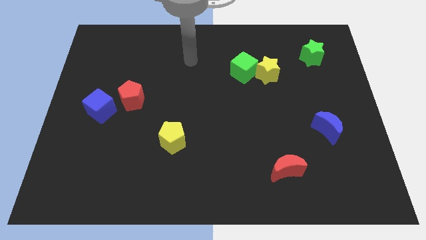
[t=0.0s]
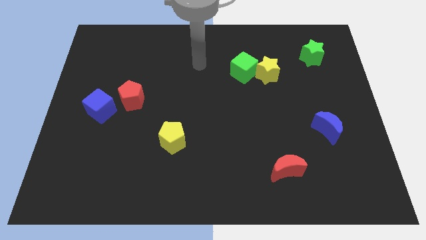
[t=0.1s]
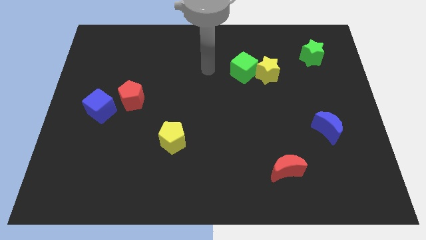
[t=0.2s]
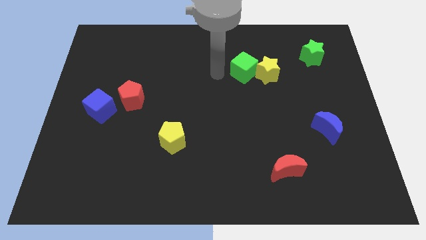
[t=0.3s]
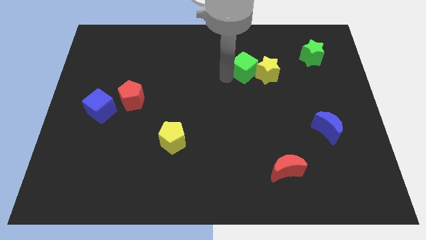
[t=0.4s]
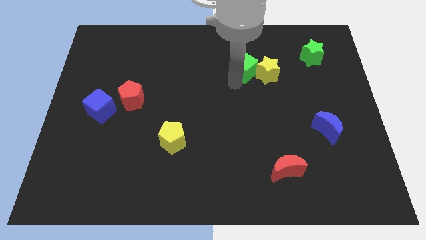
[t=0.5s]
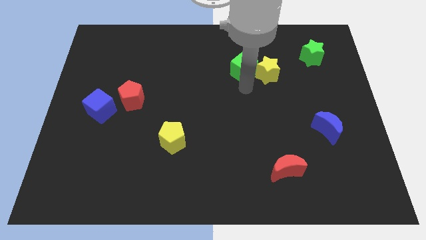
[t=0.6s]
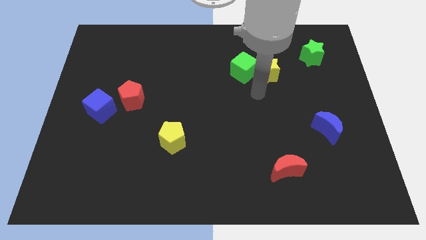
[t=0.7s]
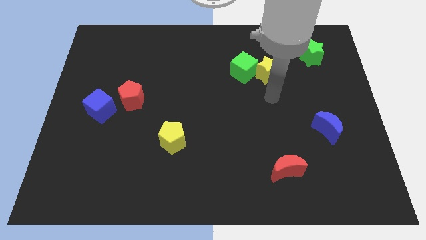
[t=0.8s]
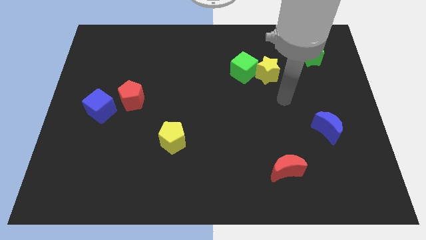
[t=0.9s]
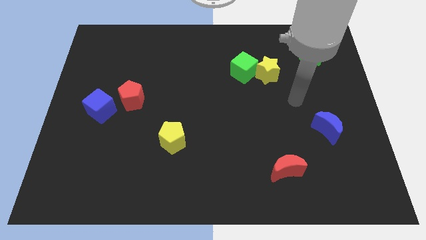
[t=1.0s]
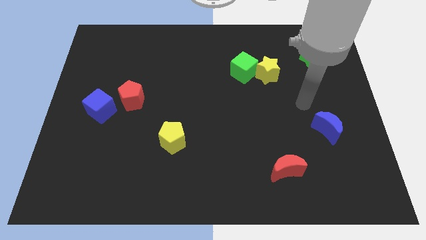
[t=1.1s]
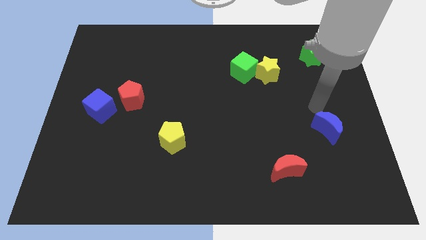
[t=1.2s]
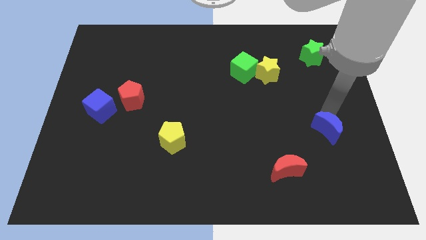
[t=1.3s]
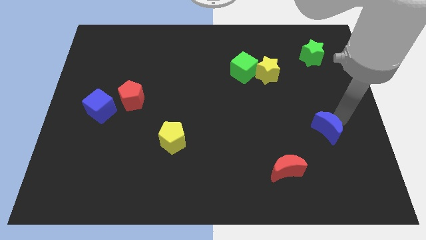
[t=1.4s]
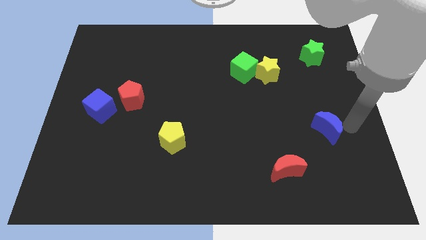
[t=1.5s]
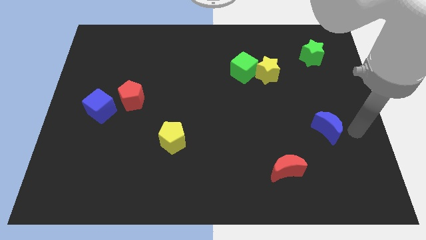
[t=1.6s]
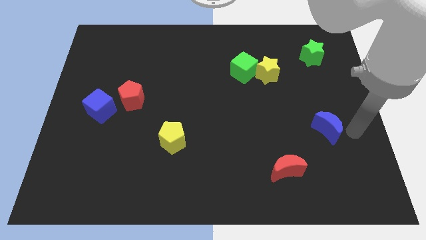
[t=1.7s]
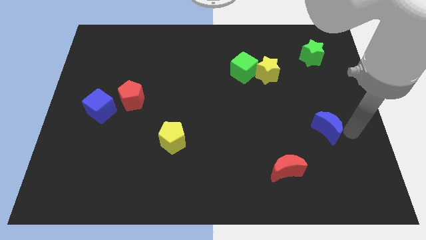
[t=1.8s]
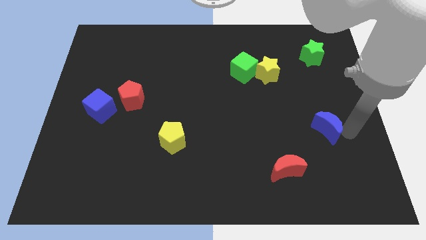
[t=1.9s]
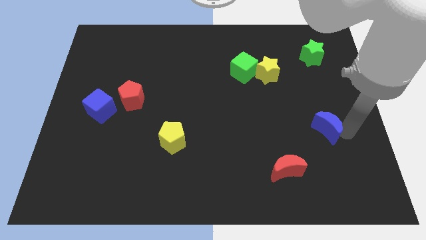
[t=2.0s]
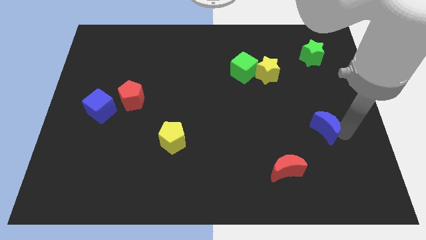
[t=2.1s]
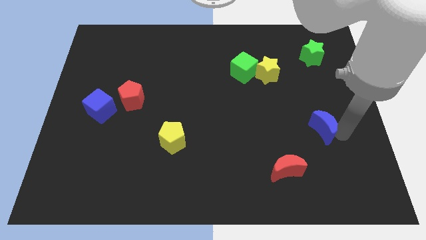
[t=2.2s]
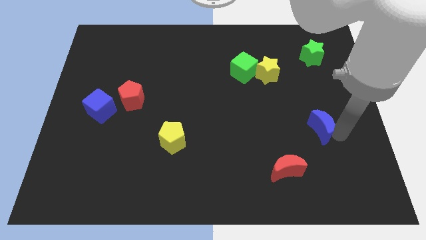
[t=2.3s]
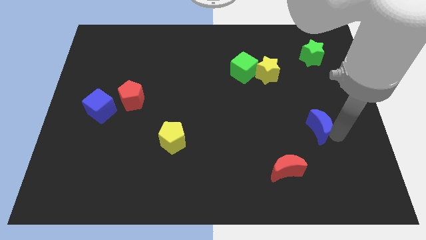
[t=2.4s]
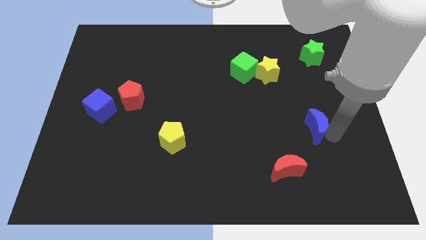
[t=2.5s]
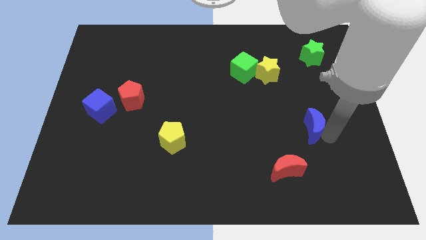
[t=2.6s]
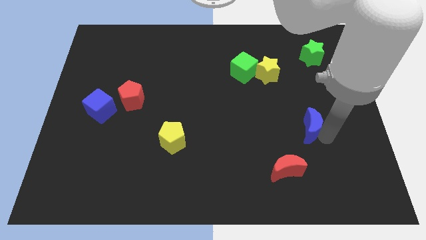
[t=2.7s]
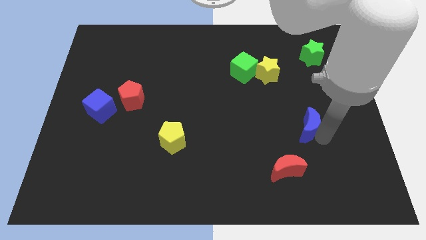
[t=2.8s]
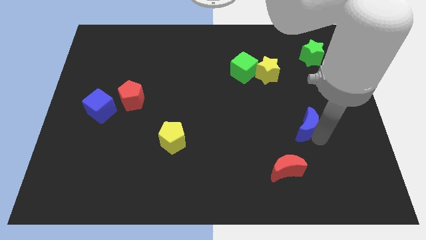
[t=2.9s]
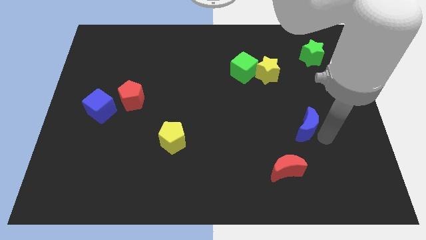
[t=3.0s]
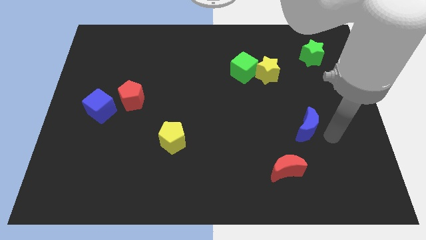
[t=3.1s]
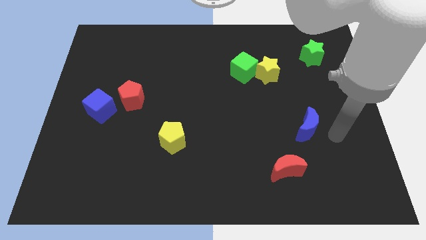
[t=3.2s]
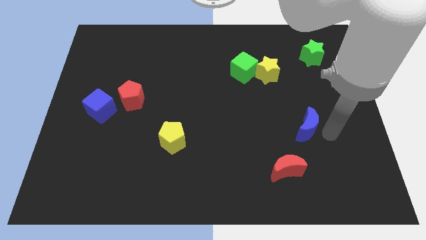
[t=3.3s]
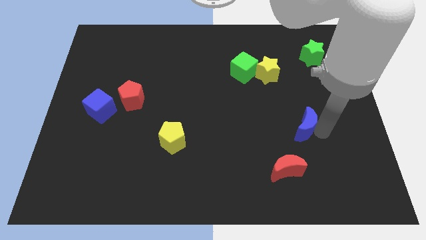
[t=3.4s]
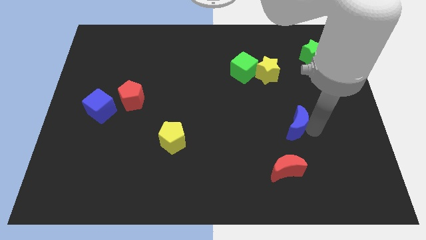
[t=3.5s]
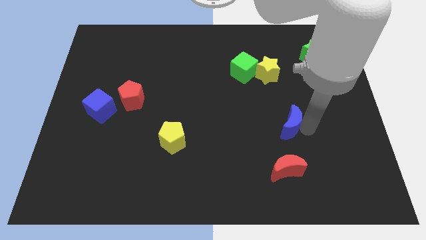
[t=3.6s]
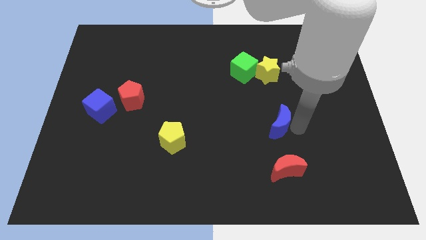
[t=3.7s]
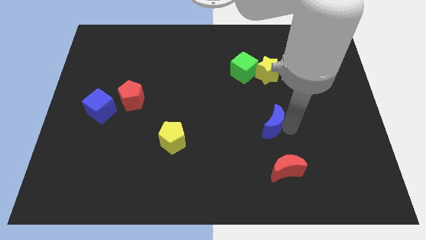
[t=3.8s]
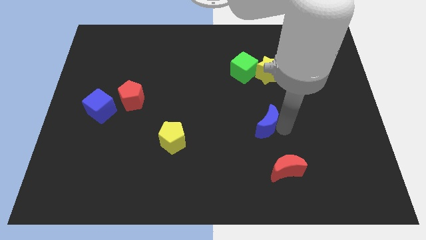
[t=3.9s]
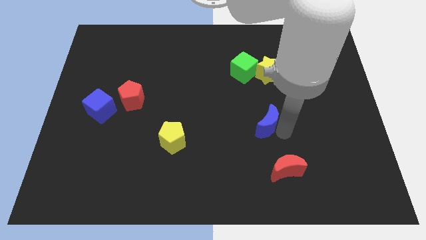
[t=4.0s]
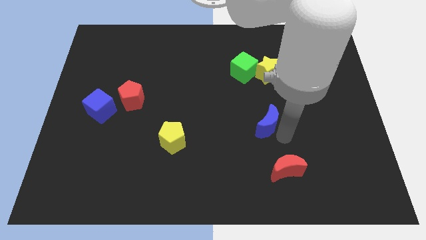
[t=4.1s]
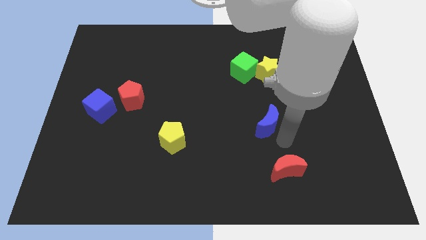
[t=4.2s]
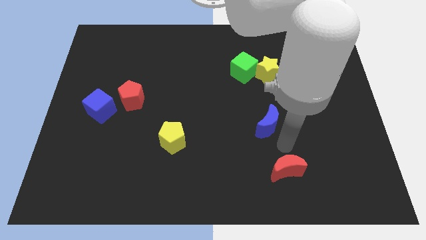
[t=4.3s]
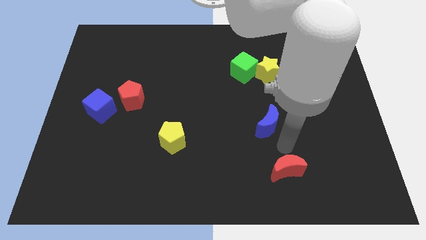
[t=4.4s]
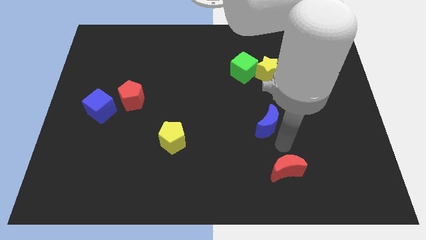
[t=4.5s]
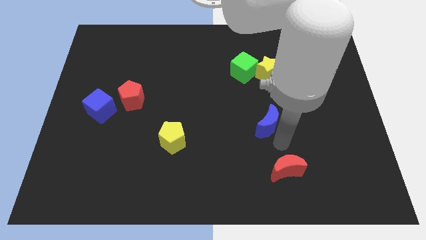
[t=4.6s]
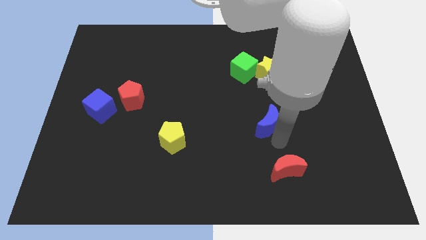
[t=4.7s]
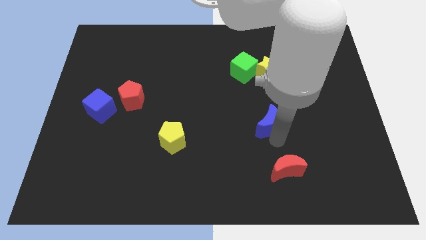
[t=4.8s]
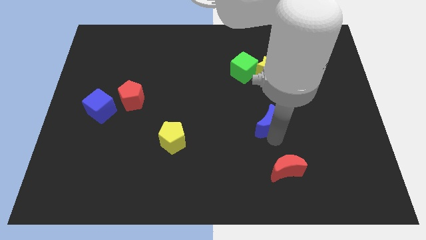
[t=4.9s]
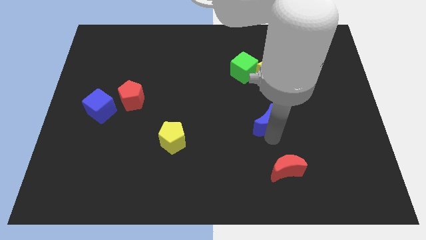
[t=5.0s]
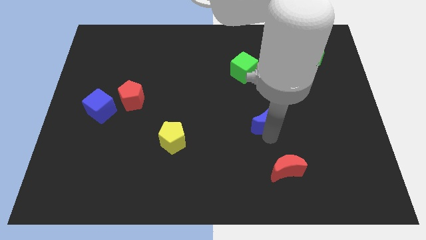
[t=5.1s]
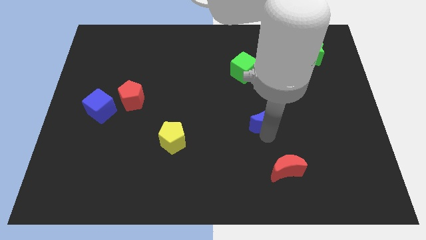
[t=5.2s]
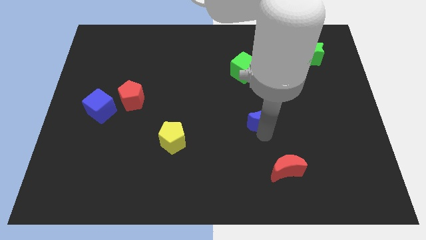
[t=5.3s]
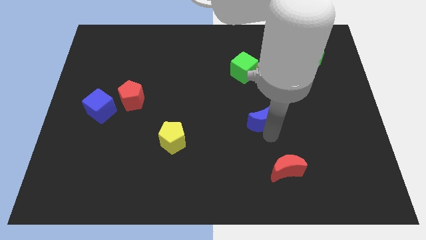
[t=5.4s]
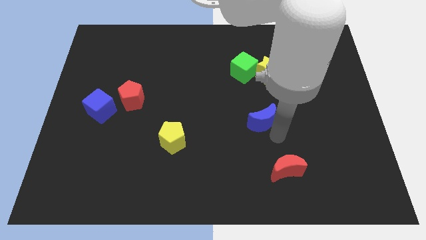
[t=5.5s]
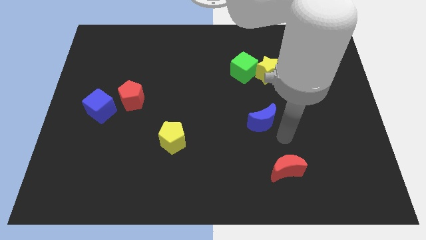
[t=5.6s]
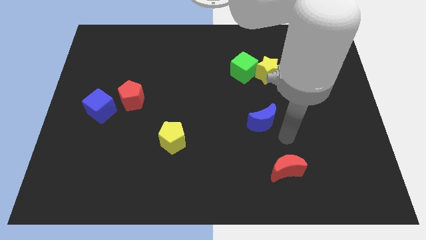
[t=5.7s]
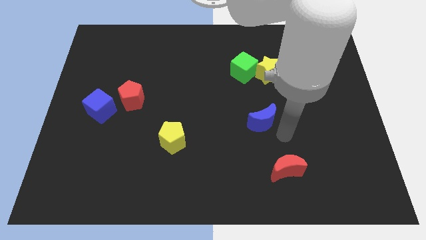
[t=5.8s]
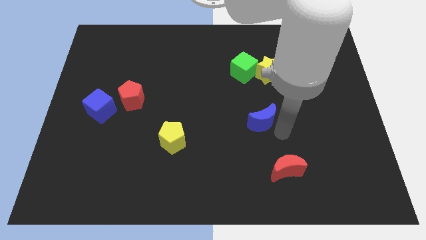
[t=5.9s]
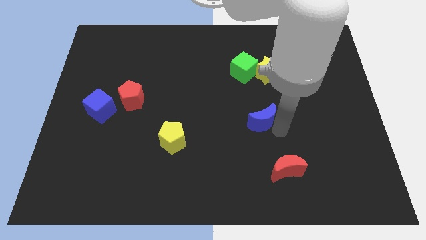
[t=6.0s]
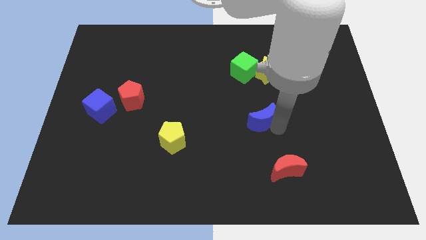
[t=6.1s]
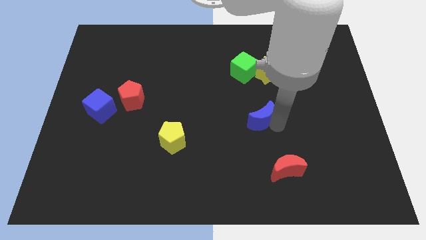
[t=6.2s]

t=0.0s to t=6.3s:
push the blue moon to the center of the board

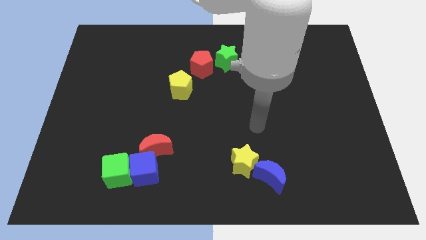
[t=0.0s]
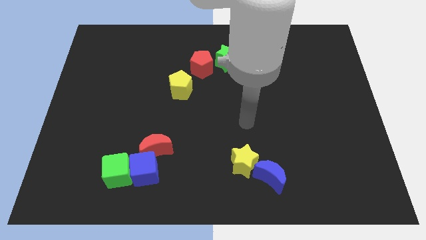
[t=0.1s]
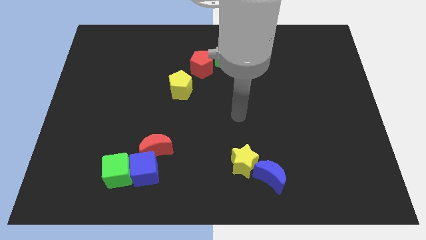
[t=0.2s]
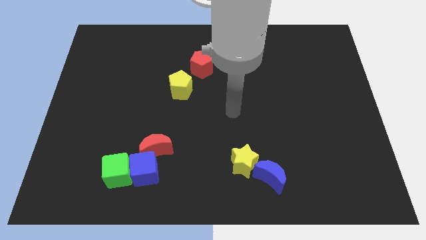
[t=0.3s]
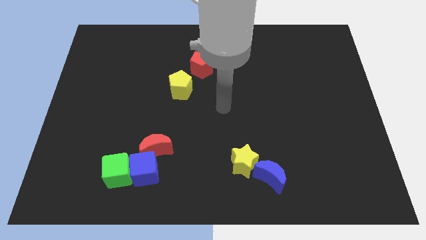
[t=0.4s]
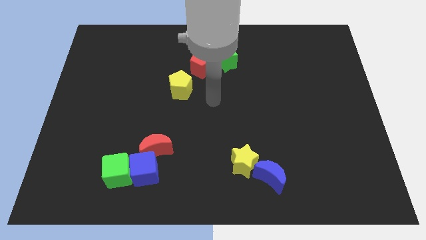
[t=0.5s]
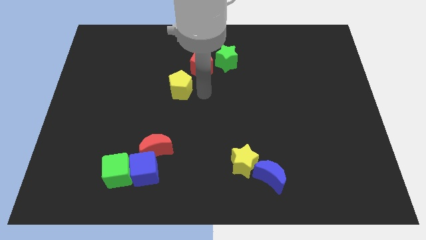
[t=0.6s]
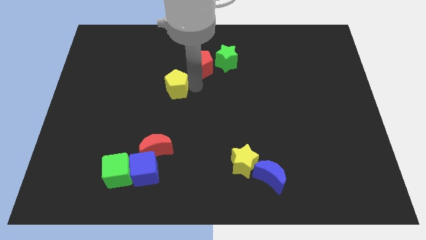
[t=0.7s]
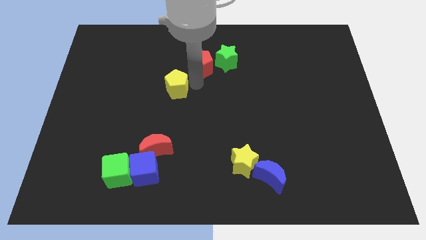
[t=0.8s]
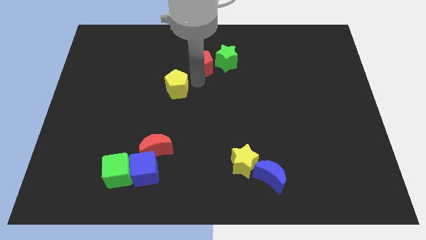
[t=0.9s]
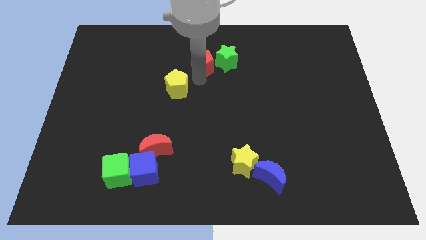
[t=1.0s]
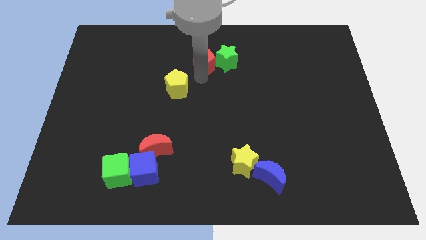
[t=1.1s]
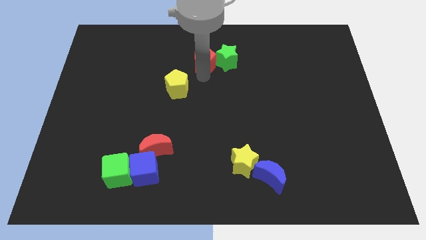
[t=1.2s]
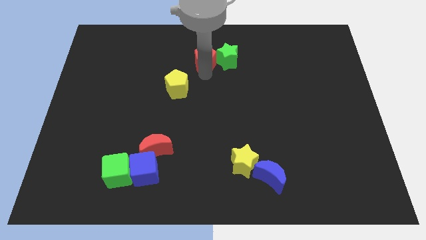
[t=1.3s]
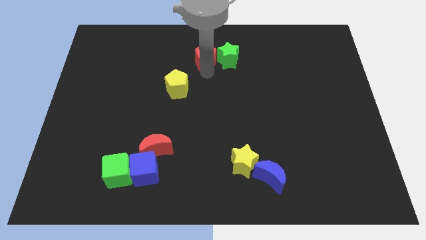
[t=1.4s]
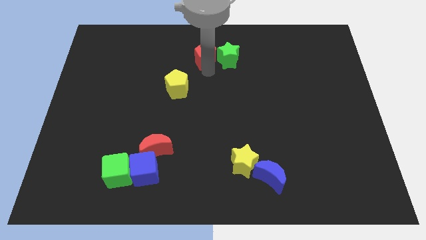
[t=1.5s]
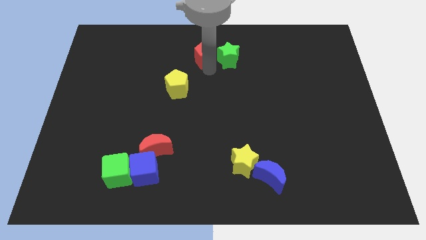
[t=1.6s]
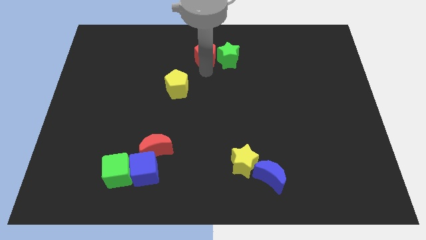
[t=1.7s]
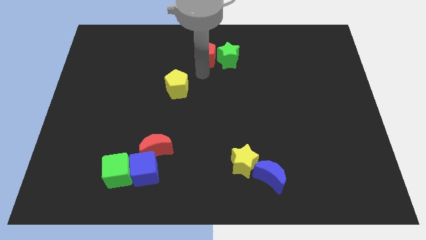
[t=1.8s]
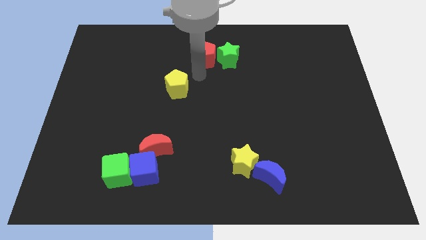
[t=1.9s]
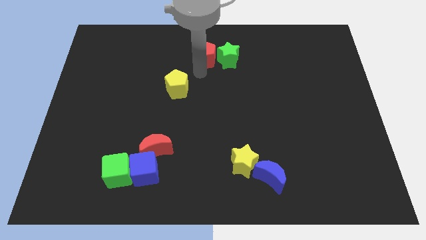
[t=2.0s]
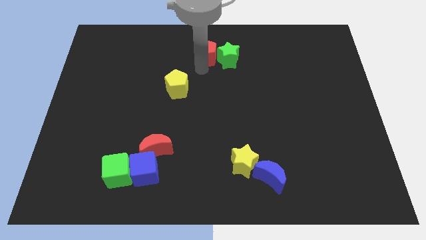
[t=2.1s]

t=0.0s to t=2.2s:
slide the red pentagon to the top side
